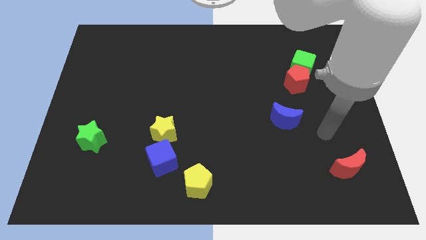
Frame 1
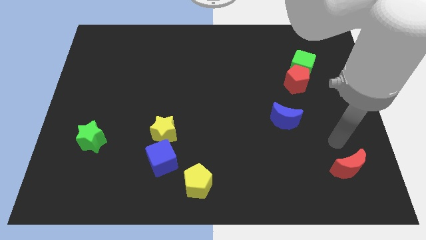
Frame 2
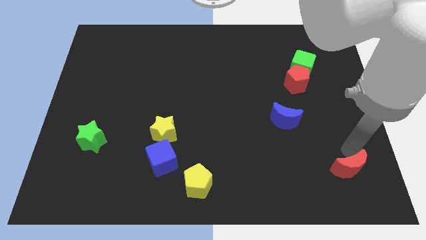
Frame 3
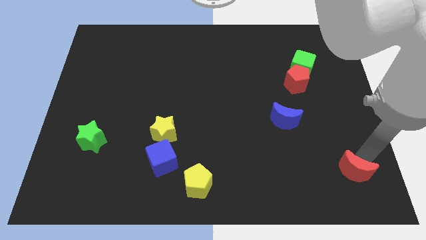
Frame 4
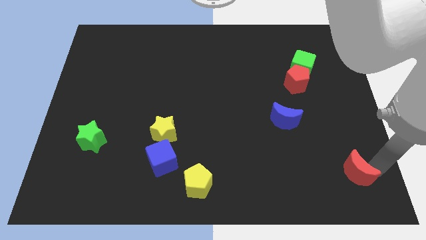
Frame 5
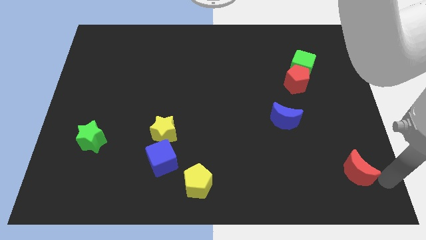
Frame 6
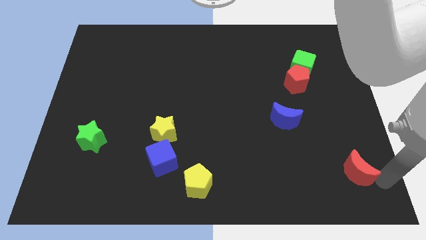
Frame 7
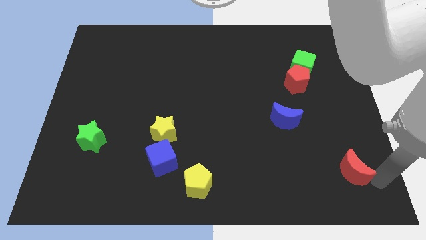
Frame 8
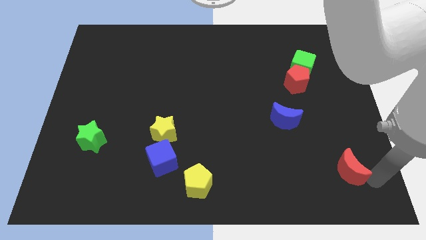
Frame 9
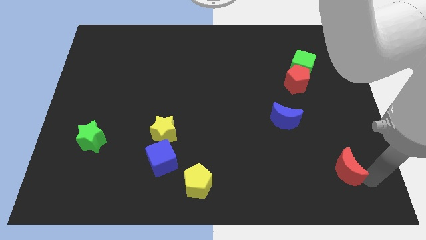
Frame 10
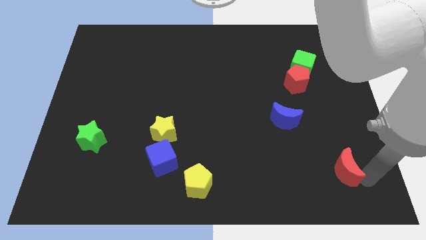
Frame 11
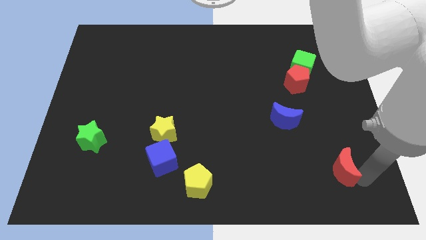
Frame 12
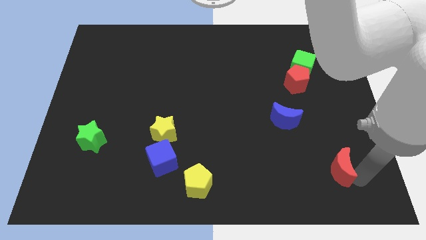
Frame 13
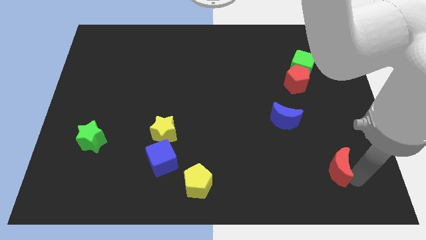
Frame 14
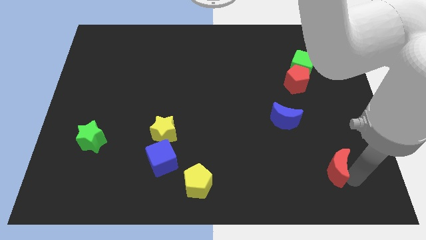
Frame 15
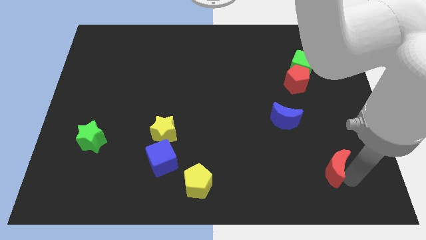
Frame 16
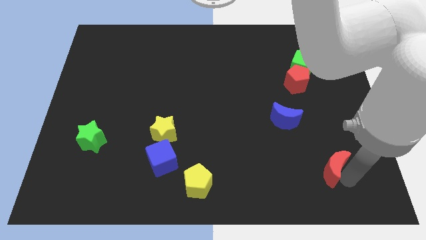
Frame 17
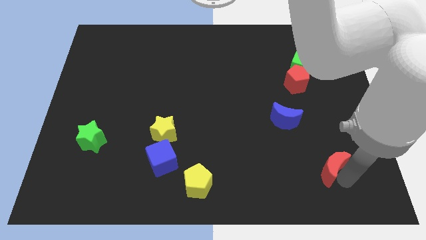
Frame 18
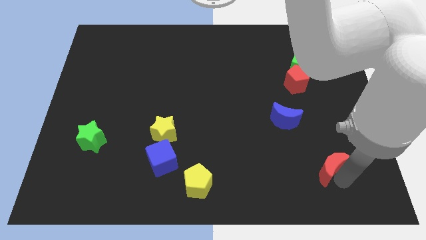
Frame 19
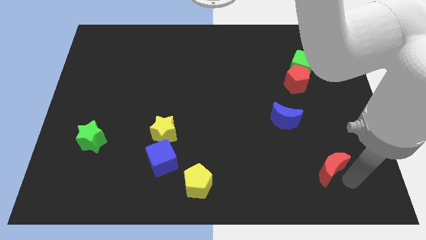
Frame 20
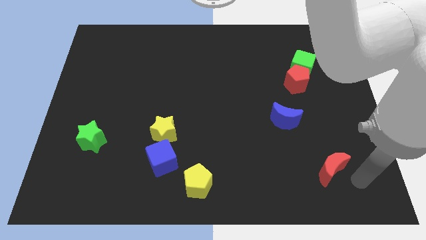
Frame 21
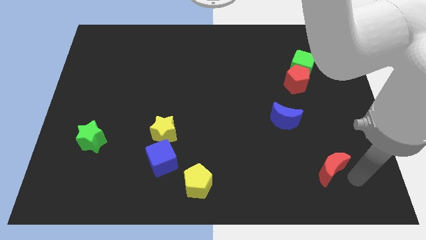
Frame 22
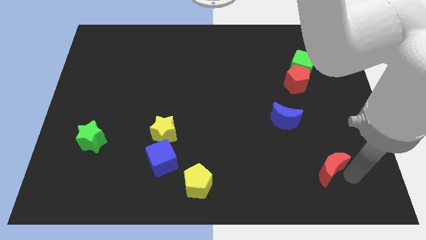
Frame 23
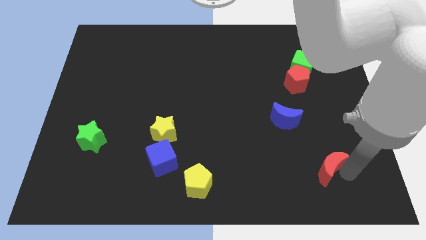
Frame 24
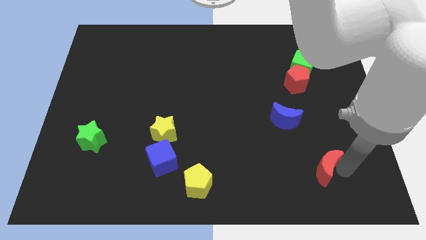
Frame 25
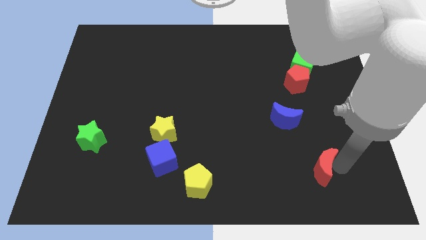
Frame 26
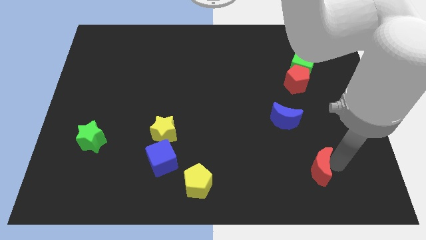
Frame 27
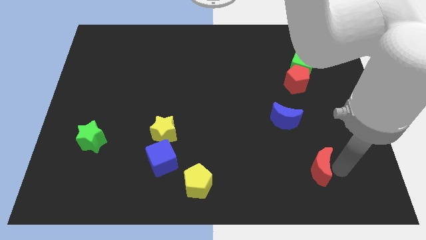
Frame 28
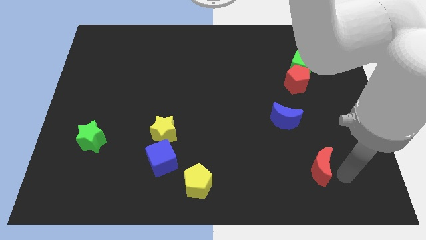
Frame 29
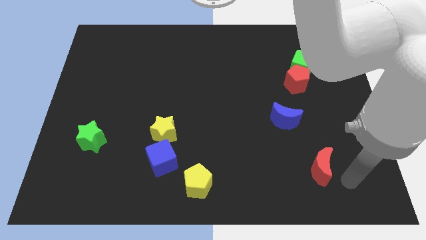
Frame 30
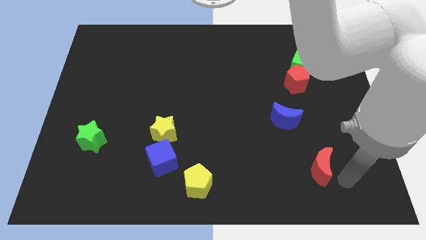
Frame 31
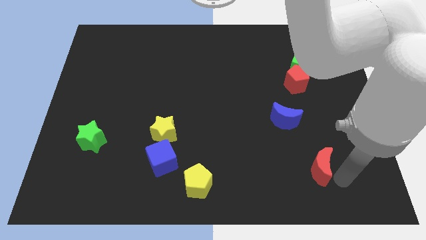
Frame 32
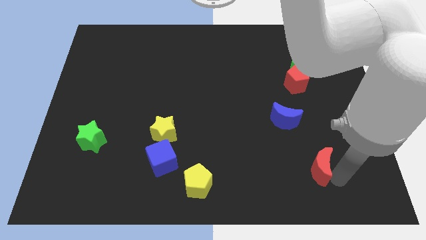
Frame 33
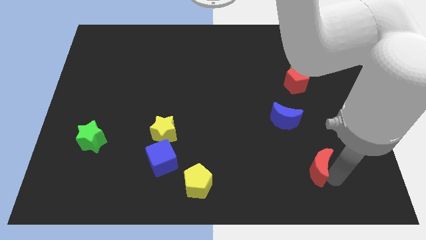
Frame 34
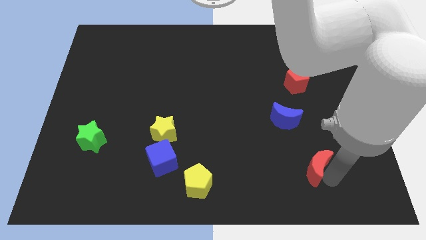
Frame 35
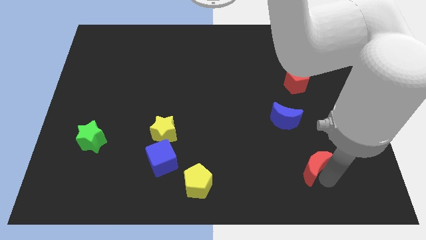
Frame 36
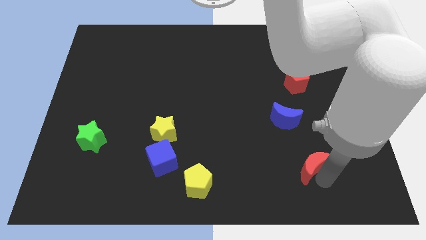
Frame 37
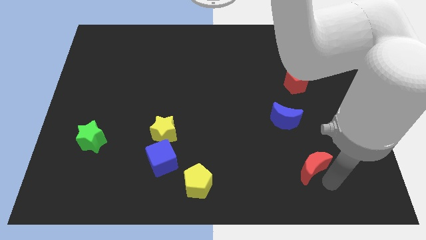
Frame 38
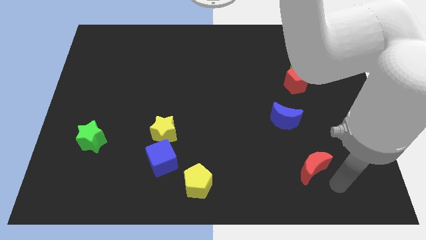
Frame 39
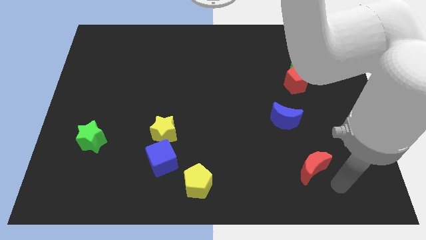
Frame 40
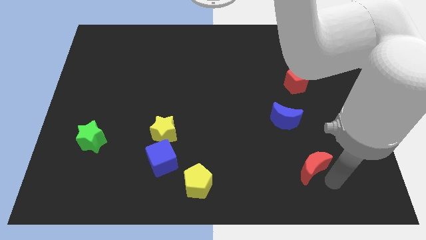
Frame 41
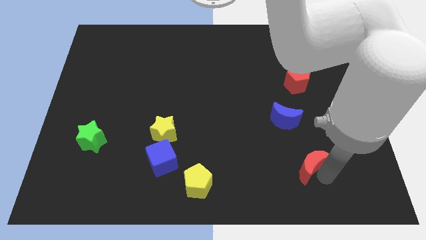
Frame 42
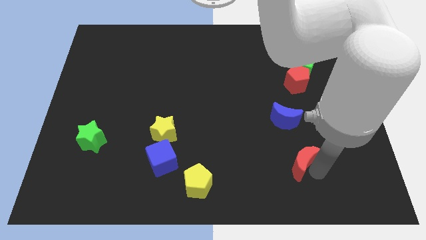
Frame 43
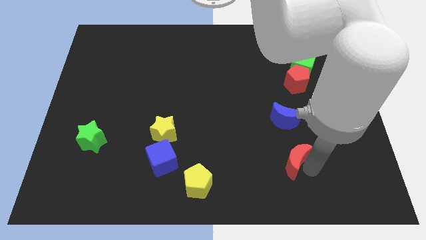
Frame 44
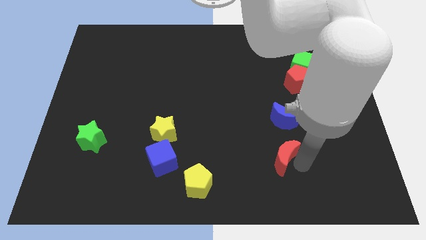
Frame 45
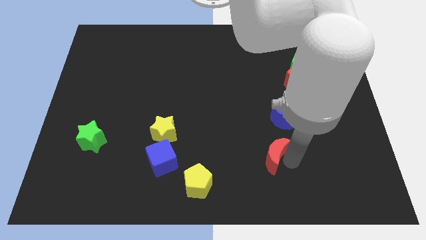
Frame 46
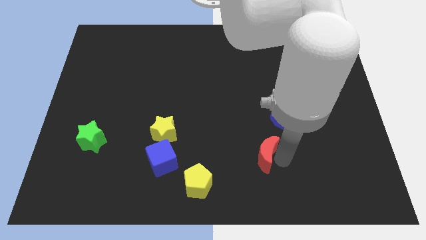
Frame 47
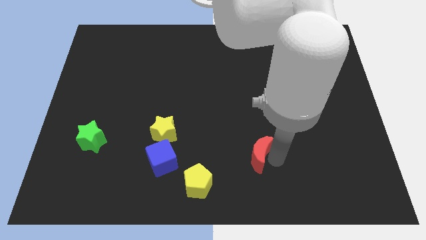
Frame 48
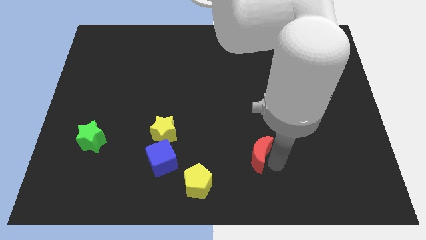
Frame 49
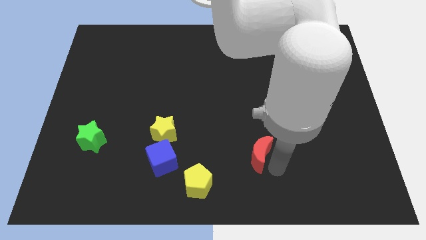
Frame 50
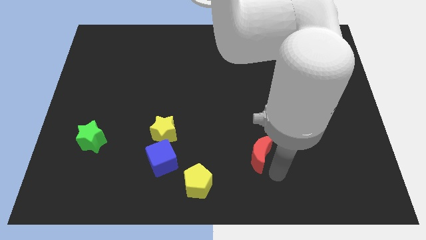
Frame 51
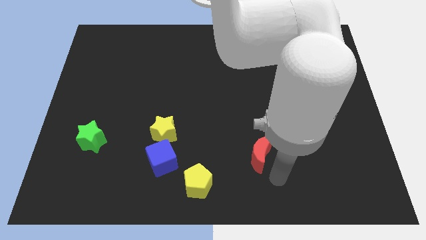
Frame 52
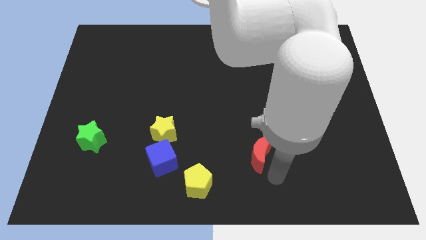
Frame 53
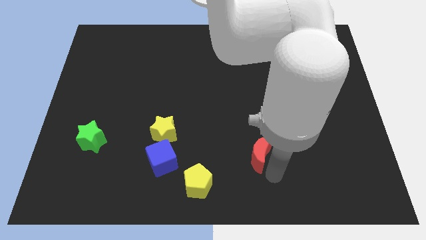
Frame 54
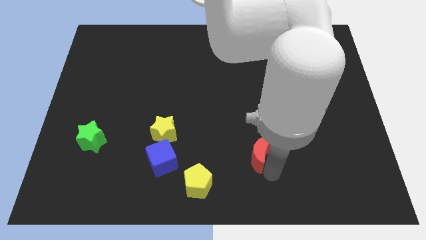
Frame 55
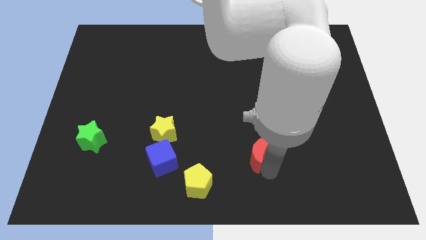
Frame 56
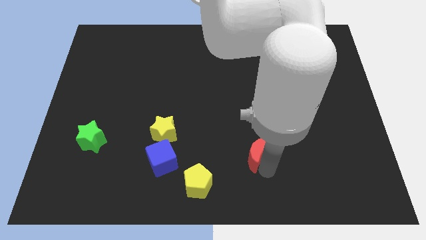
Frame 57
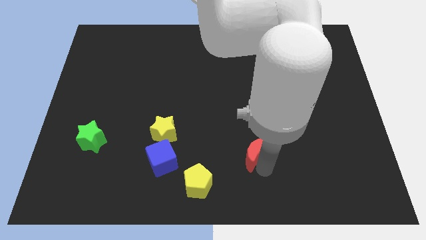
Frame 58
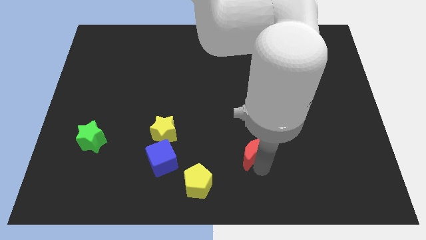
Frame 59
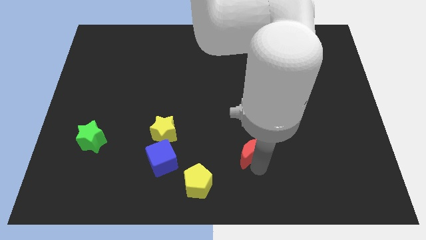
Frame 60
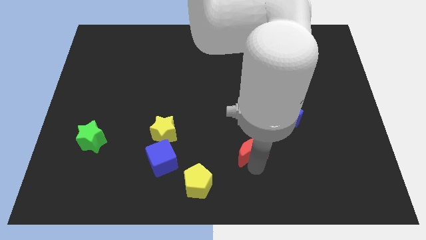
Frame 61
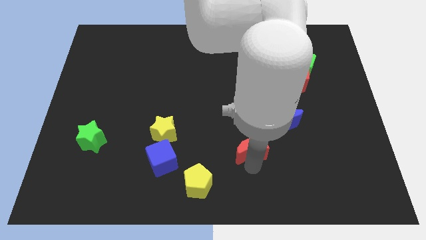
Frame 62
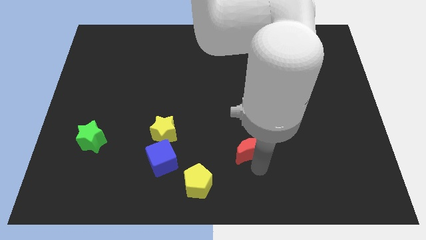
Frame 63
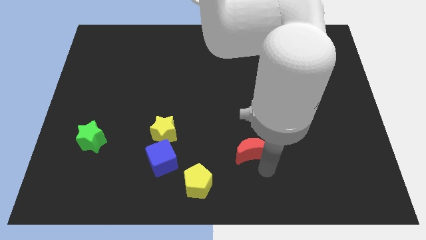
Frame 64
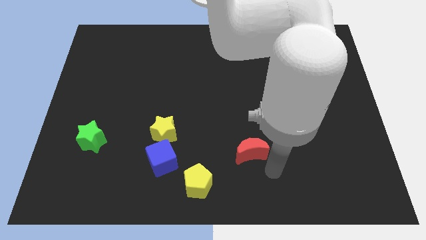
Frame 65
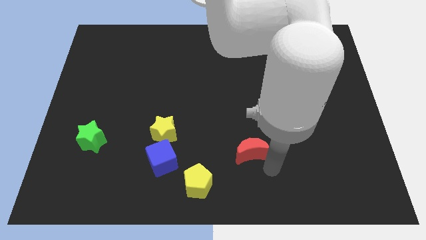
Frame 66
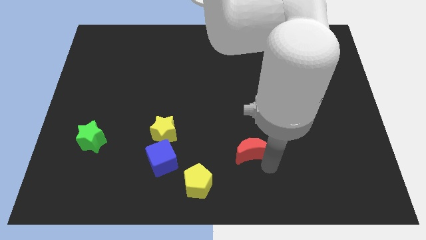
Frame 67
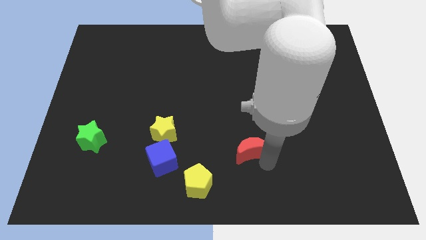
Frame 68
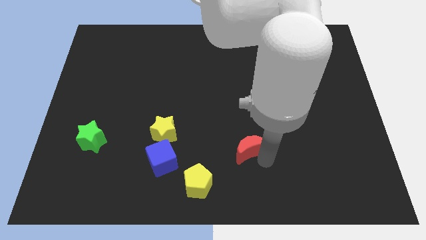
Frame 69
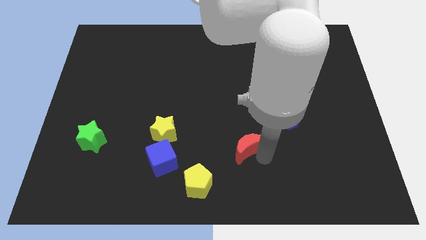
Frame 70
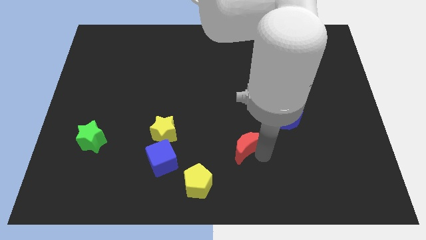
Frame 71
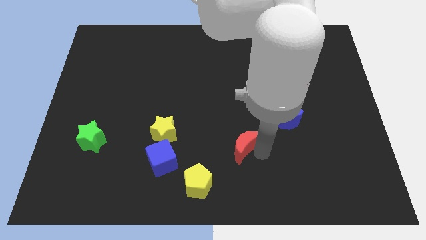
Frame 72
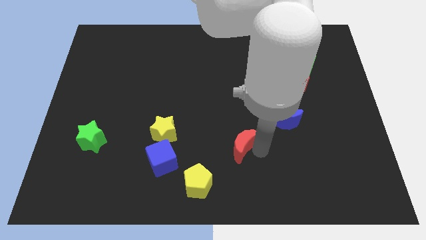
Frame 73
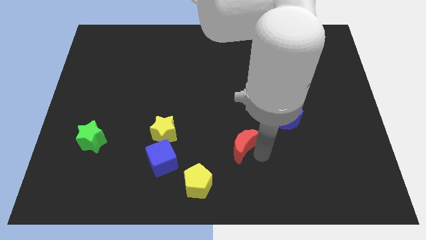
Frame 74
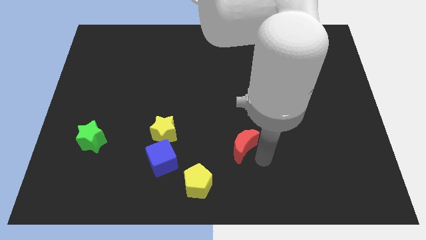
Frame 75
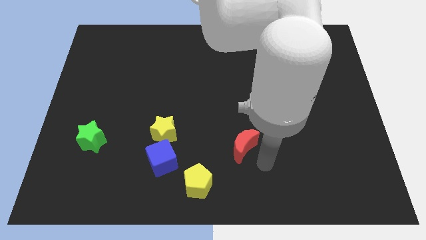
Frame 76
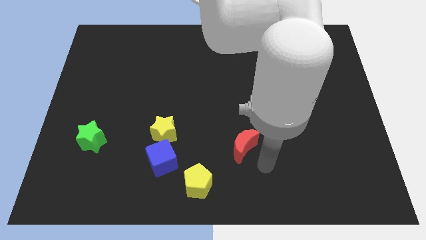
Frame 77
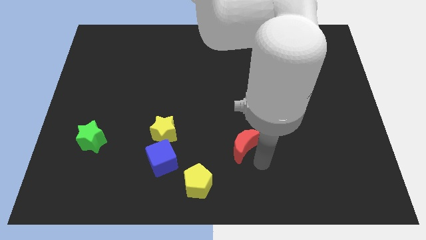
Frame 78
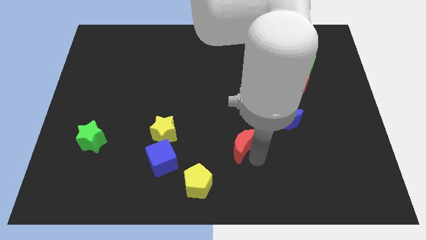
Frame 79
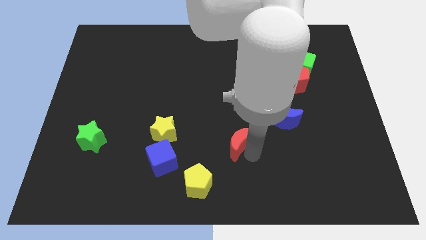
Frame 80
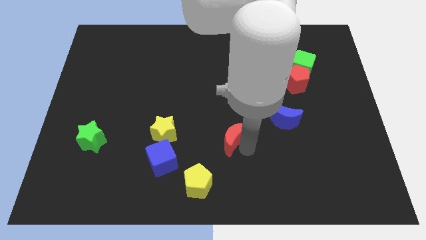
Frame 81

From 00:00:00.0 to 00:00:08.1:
put the red moon just right of the yellow star
